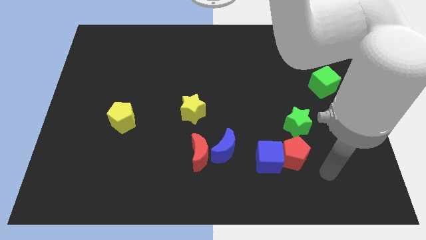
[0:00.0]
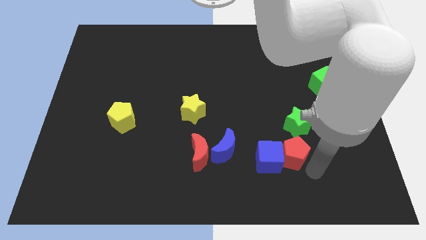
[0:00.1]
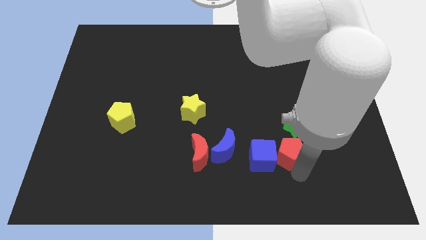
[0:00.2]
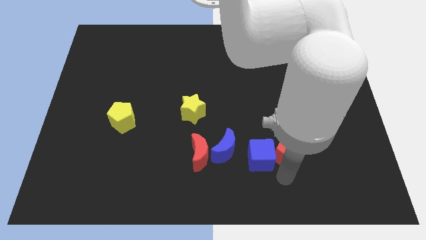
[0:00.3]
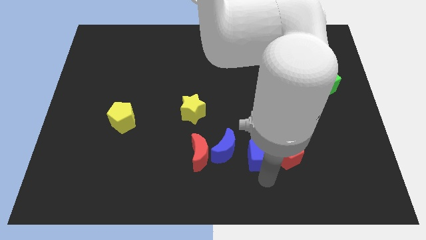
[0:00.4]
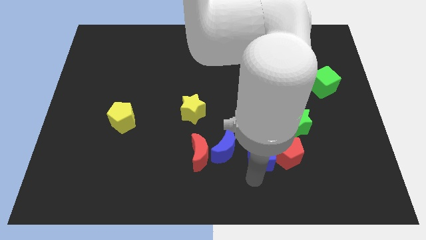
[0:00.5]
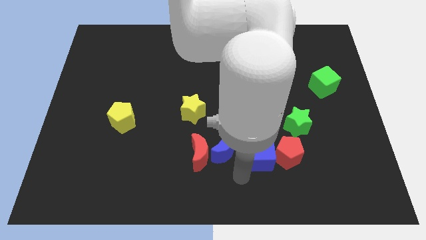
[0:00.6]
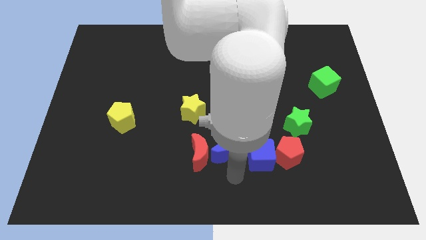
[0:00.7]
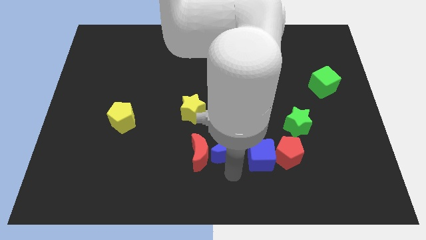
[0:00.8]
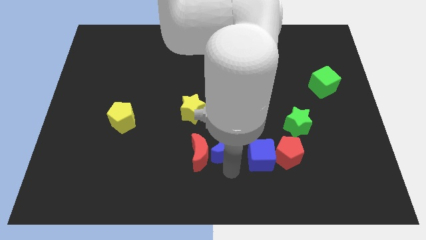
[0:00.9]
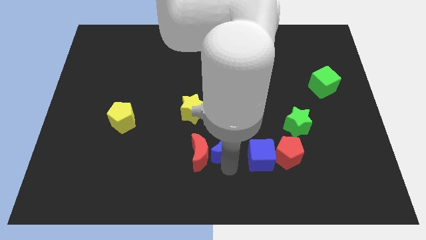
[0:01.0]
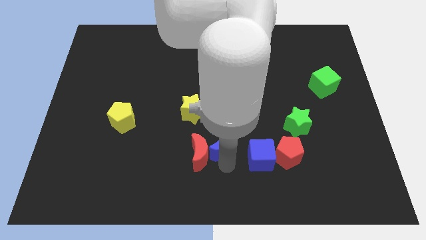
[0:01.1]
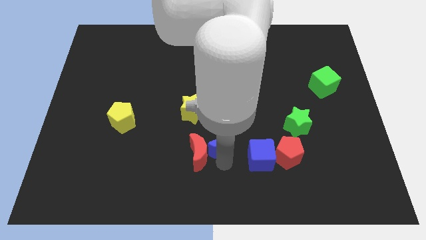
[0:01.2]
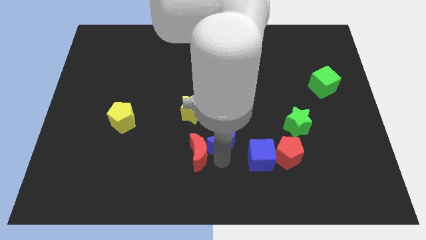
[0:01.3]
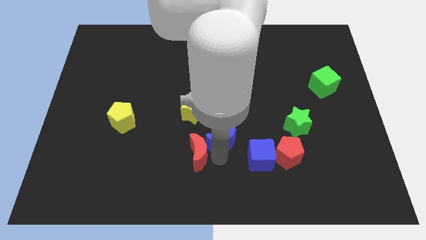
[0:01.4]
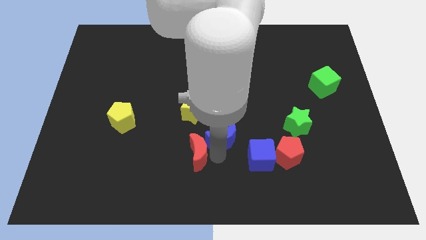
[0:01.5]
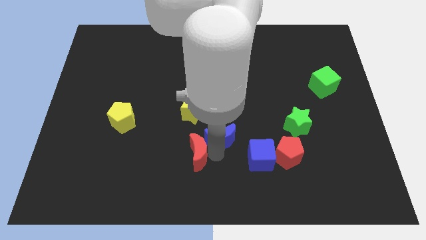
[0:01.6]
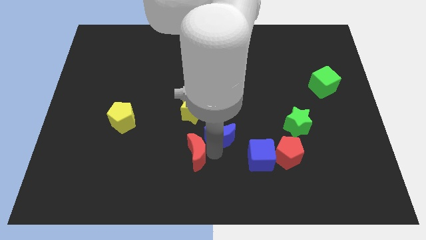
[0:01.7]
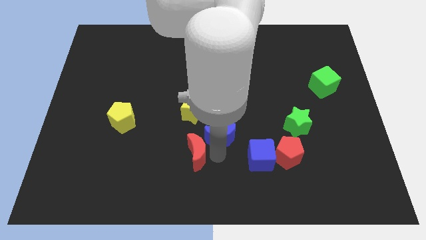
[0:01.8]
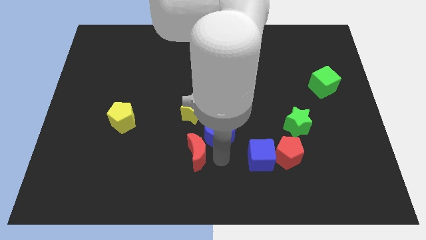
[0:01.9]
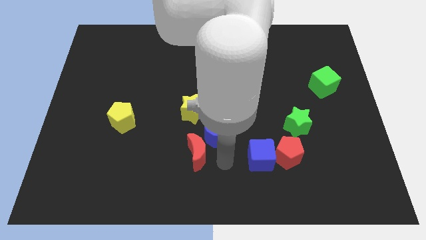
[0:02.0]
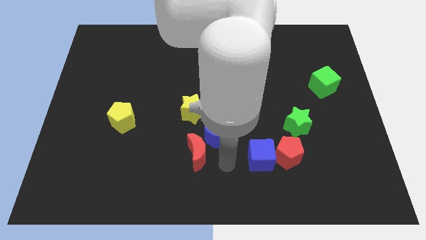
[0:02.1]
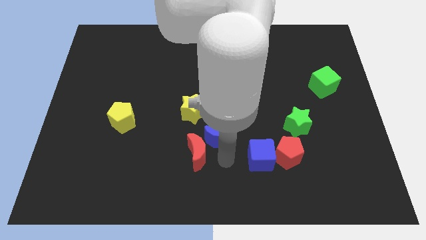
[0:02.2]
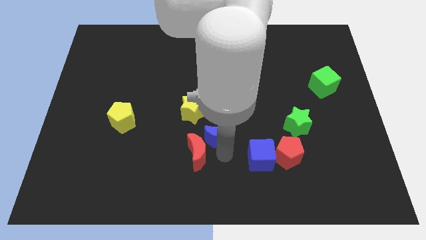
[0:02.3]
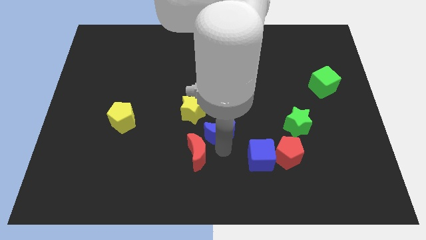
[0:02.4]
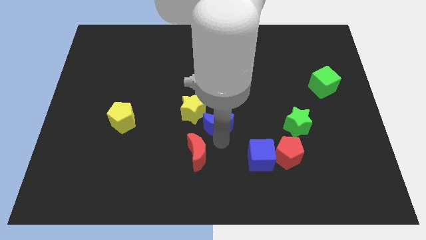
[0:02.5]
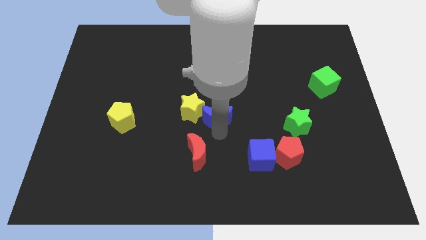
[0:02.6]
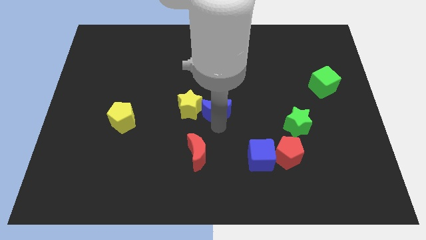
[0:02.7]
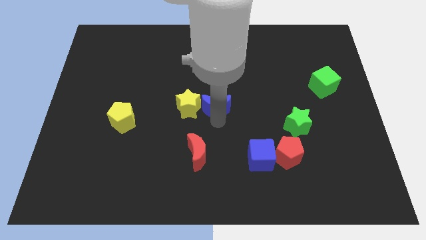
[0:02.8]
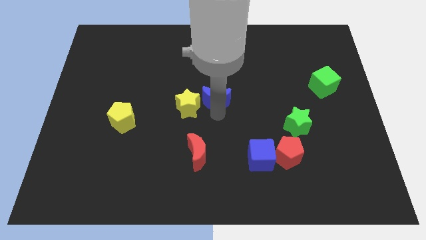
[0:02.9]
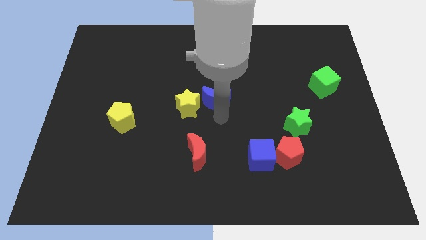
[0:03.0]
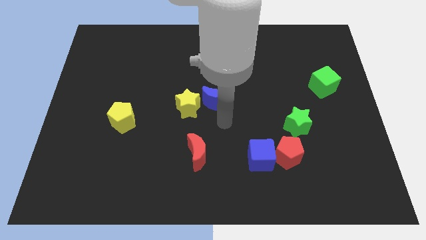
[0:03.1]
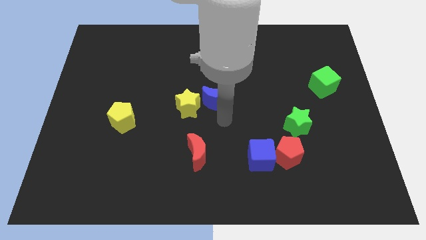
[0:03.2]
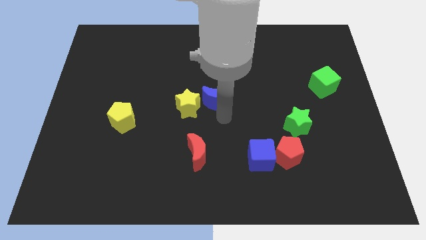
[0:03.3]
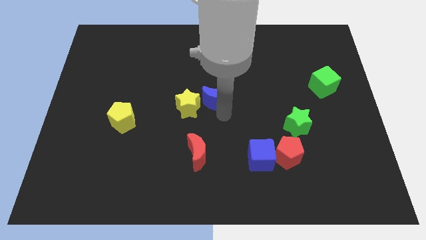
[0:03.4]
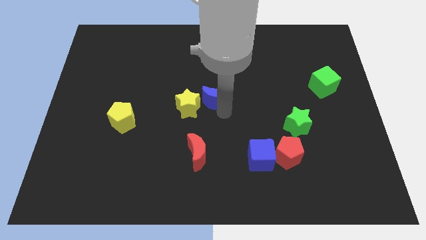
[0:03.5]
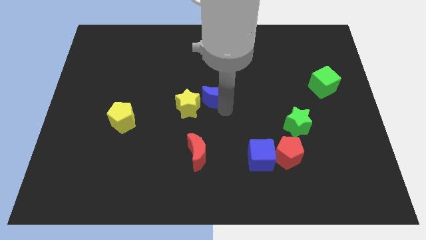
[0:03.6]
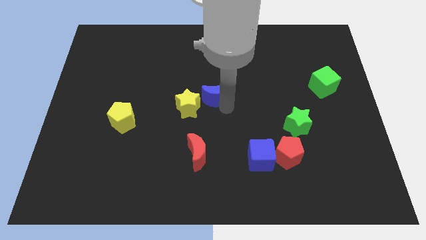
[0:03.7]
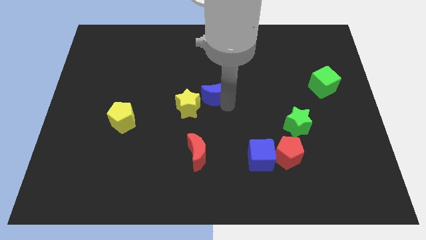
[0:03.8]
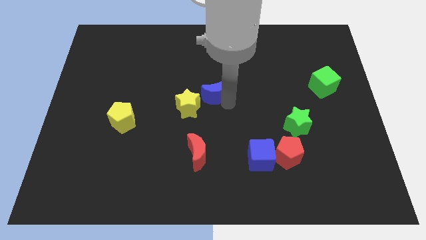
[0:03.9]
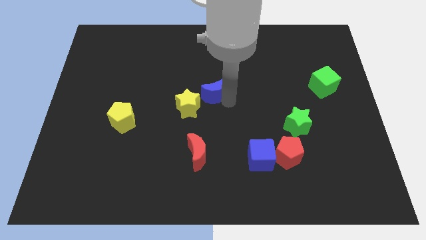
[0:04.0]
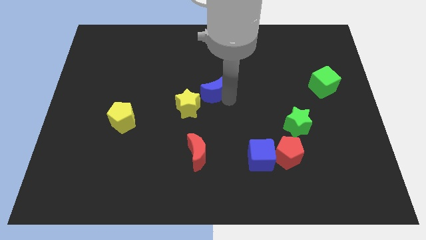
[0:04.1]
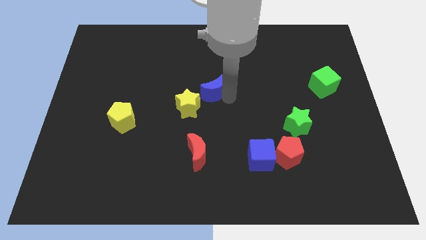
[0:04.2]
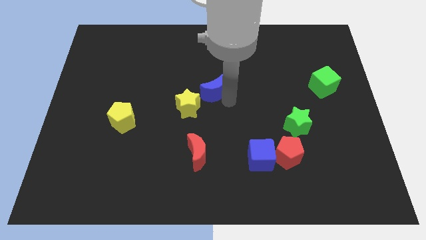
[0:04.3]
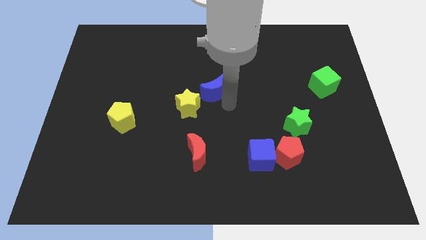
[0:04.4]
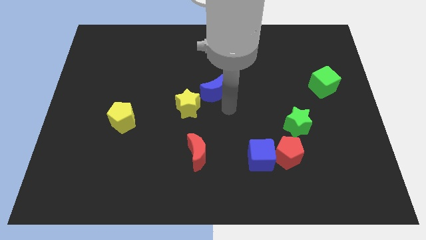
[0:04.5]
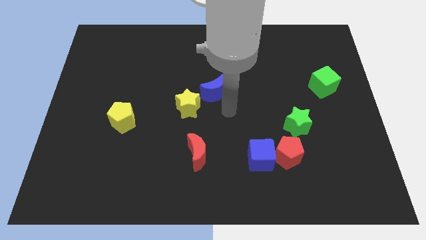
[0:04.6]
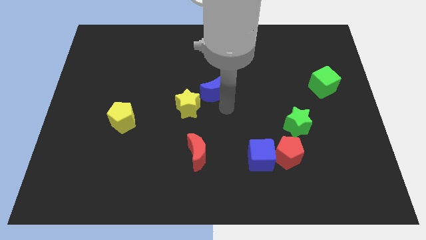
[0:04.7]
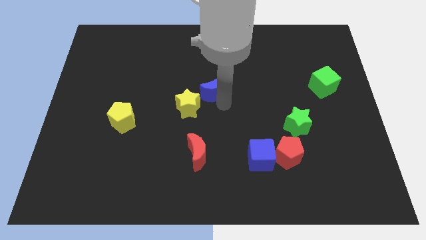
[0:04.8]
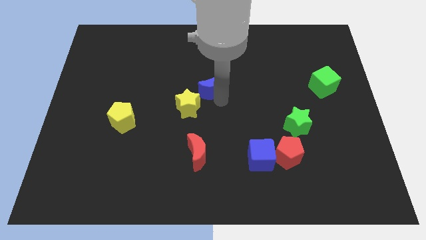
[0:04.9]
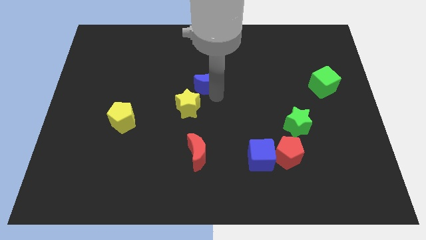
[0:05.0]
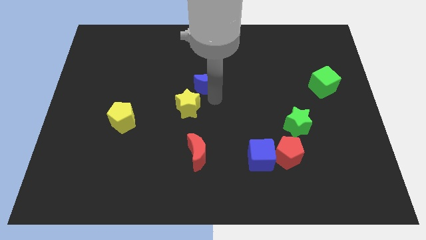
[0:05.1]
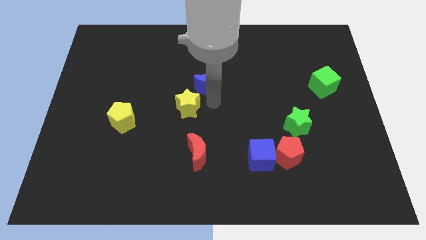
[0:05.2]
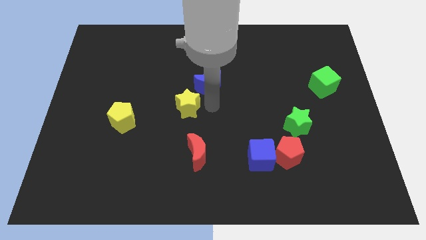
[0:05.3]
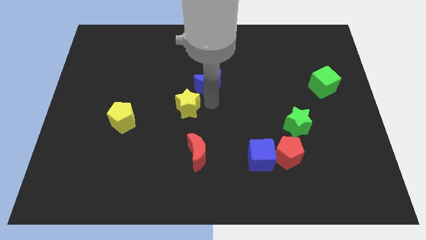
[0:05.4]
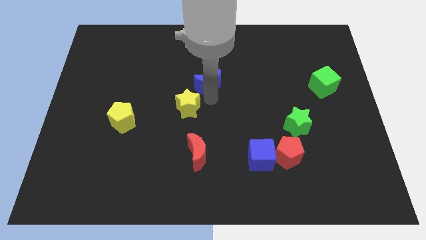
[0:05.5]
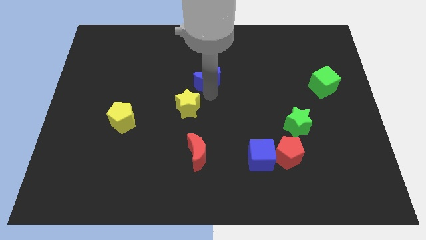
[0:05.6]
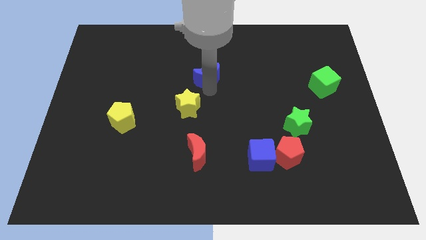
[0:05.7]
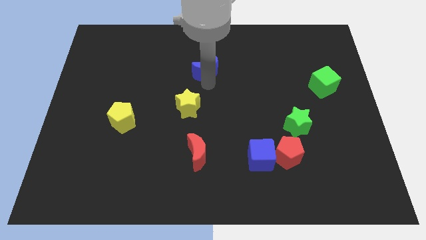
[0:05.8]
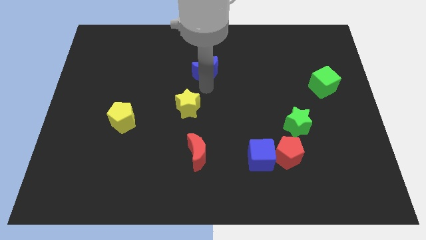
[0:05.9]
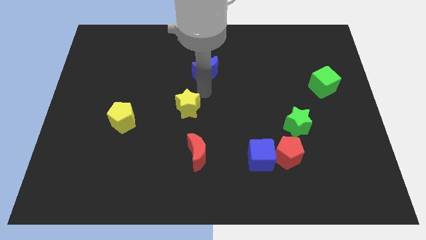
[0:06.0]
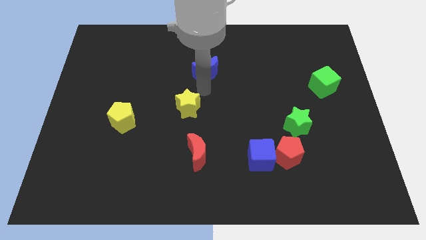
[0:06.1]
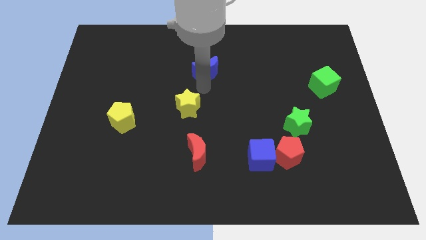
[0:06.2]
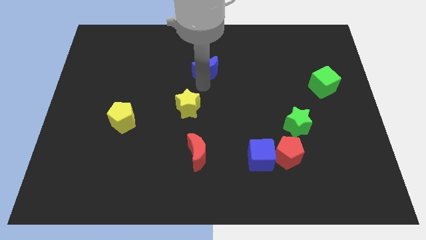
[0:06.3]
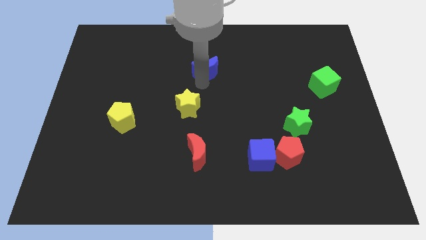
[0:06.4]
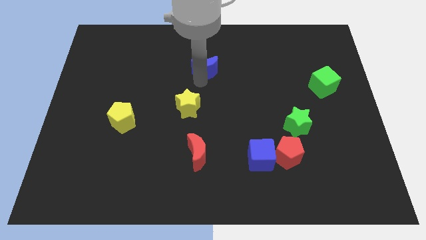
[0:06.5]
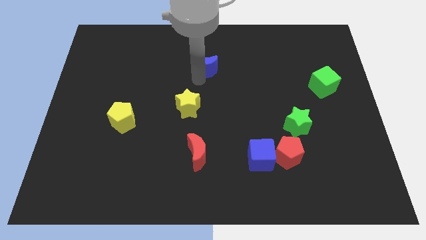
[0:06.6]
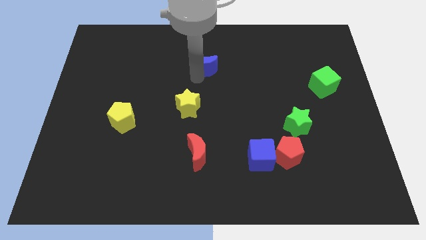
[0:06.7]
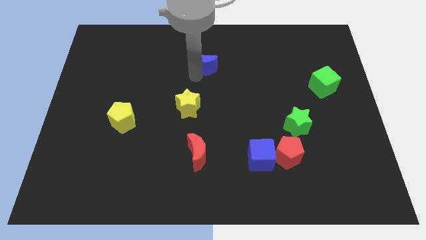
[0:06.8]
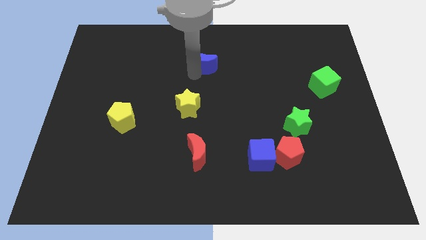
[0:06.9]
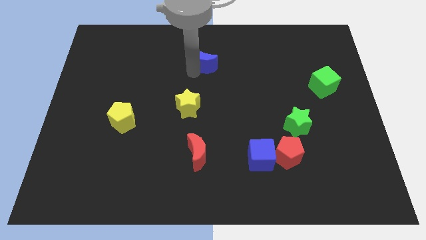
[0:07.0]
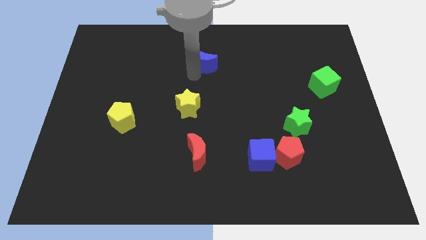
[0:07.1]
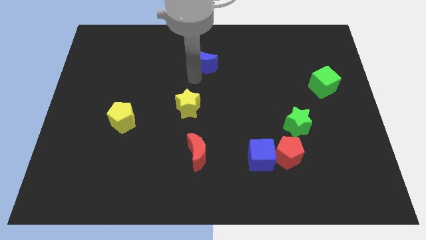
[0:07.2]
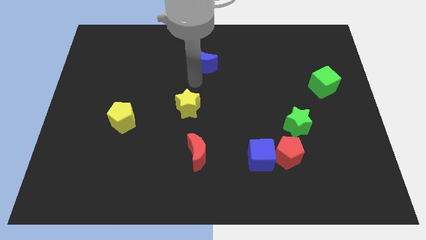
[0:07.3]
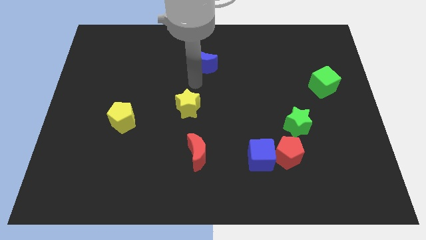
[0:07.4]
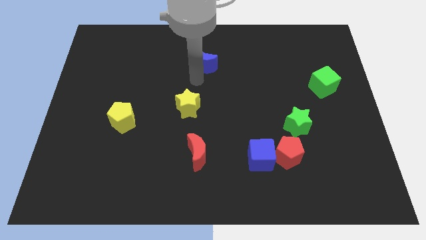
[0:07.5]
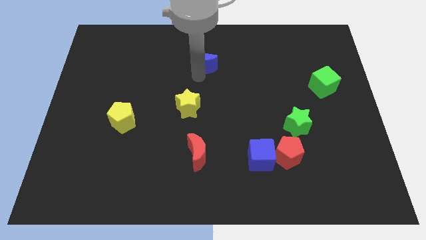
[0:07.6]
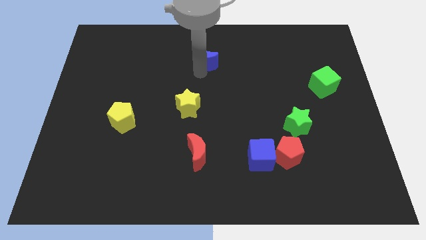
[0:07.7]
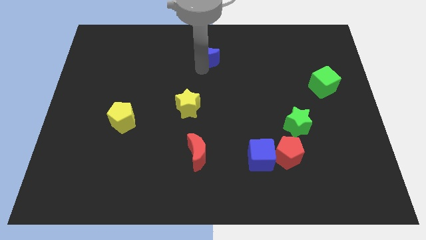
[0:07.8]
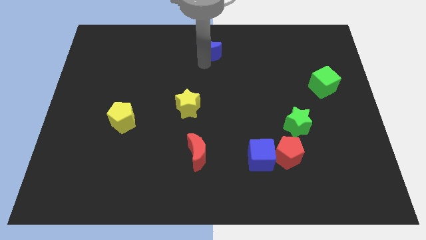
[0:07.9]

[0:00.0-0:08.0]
put the blue moon to the towards your base
